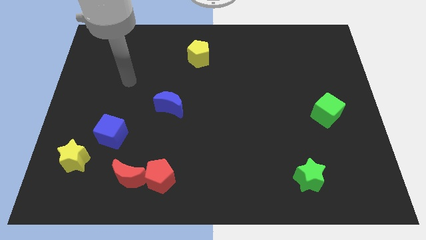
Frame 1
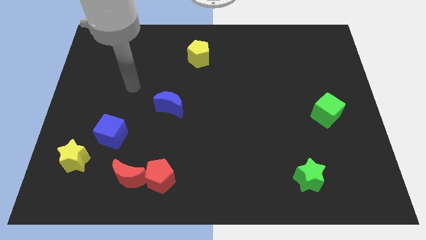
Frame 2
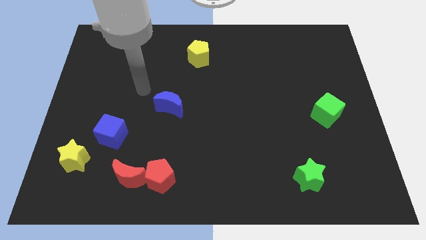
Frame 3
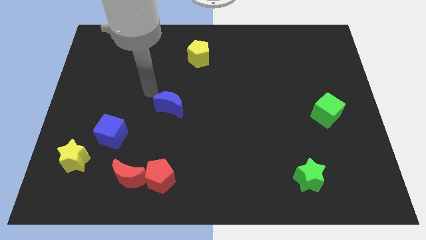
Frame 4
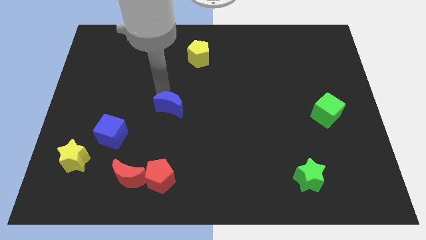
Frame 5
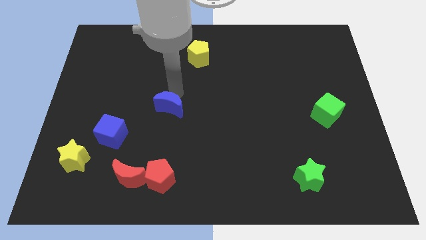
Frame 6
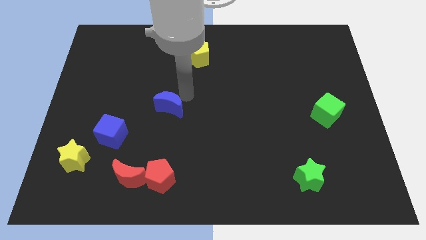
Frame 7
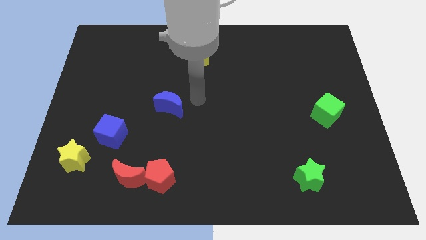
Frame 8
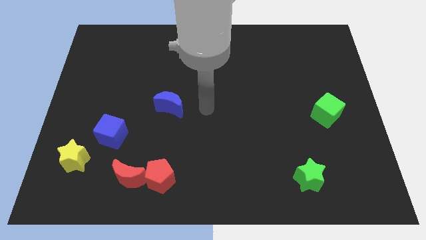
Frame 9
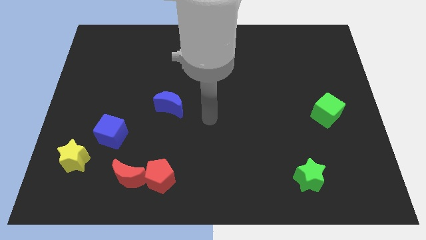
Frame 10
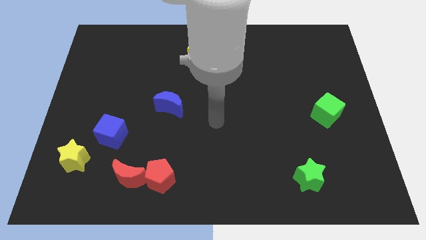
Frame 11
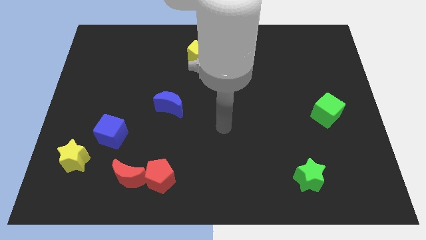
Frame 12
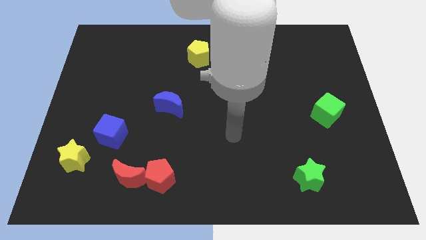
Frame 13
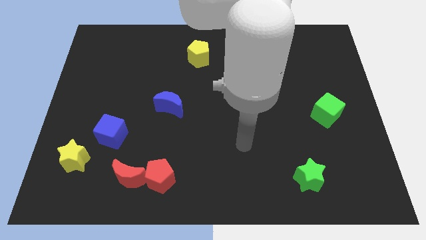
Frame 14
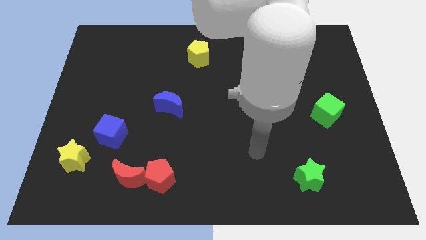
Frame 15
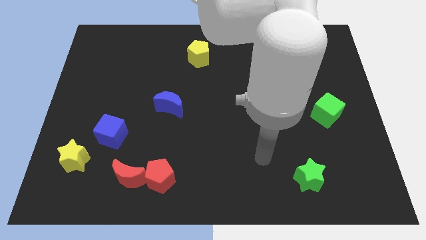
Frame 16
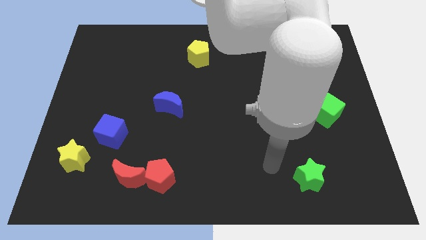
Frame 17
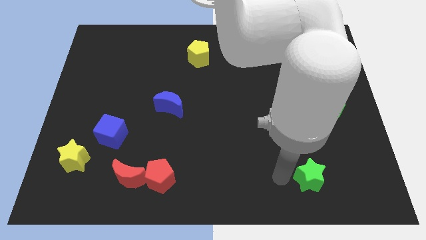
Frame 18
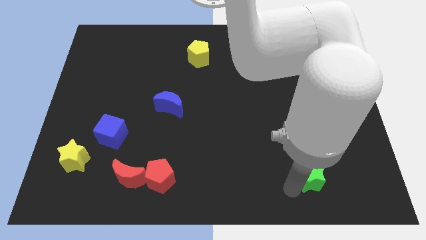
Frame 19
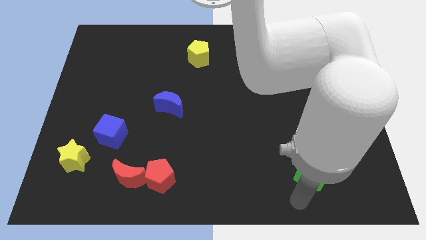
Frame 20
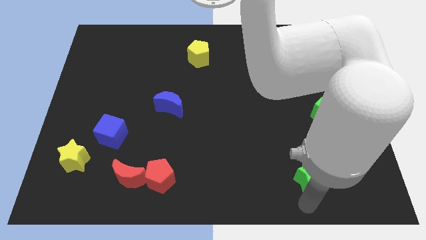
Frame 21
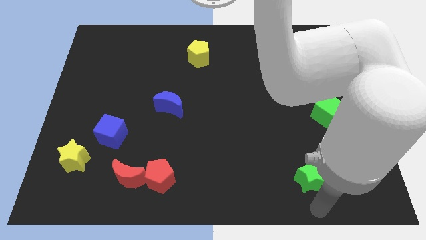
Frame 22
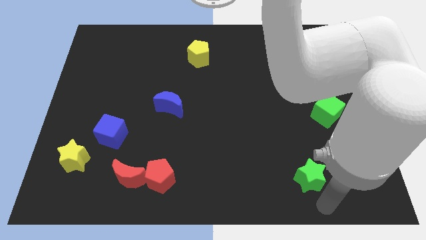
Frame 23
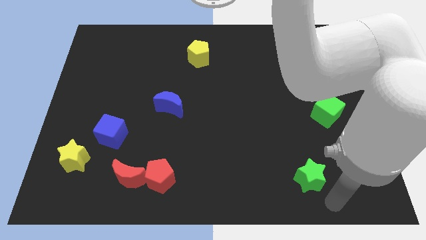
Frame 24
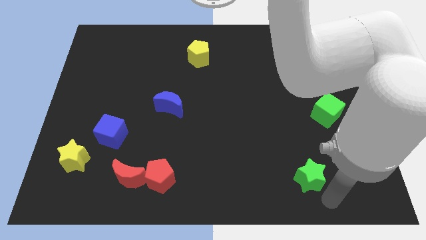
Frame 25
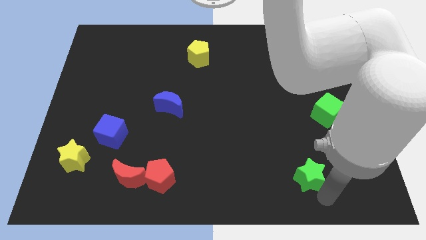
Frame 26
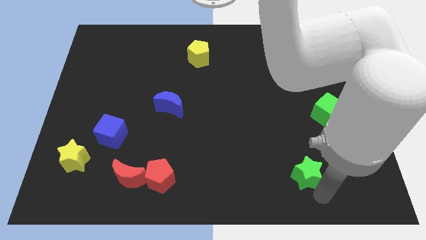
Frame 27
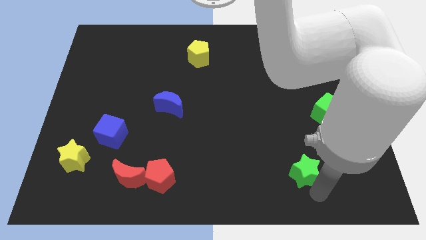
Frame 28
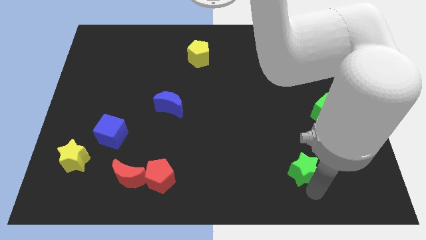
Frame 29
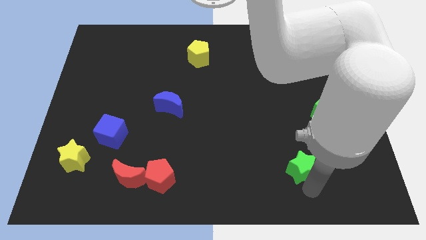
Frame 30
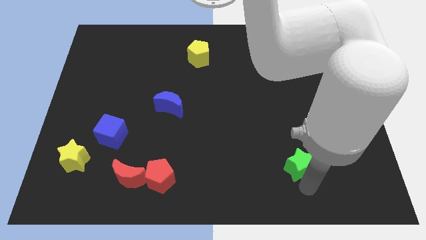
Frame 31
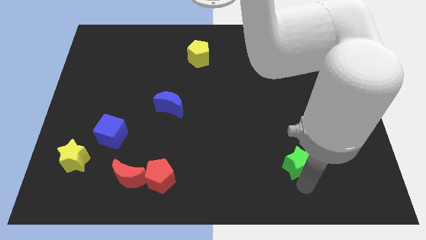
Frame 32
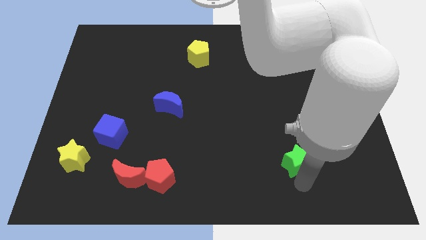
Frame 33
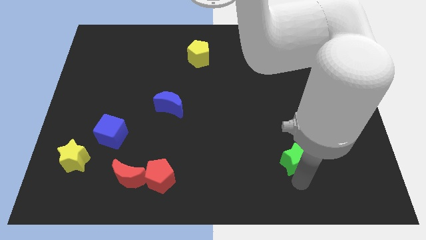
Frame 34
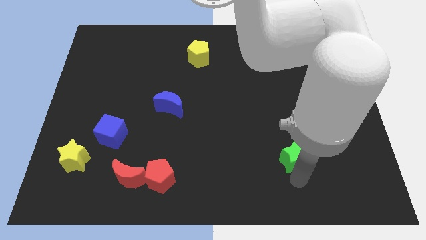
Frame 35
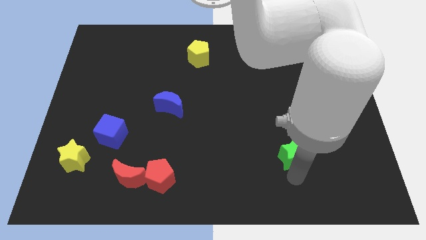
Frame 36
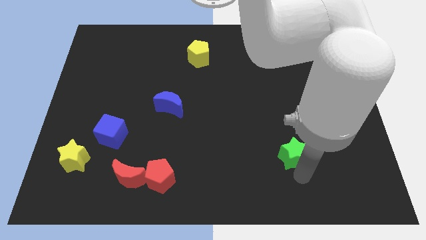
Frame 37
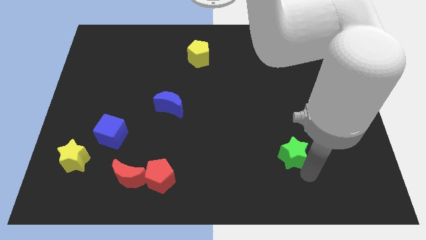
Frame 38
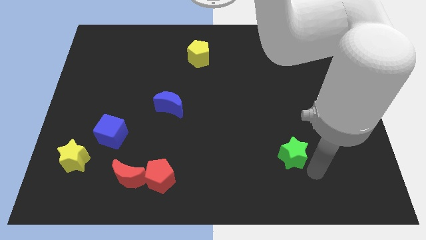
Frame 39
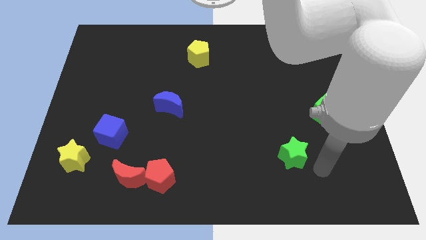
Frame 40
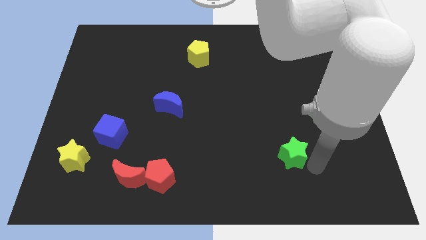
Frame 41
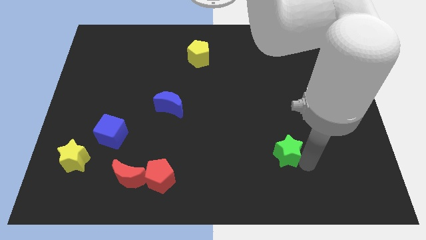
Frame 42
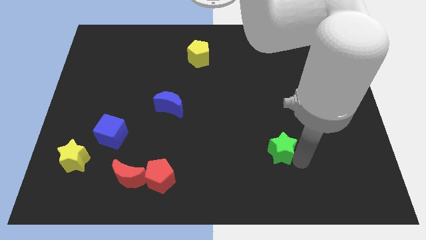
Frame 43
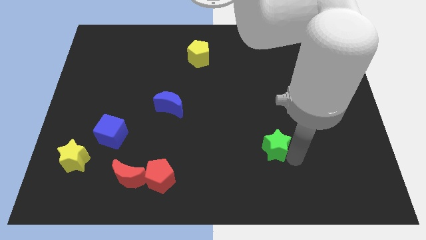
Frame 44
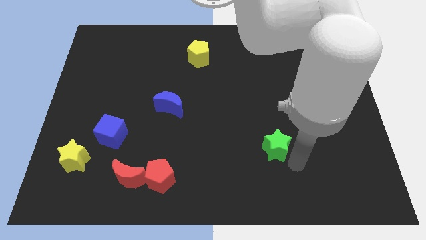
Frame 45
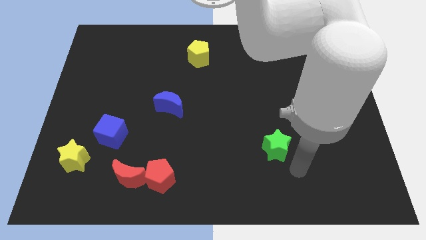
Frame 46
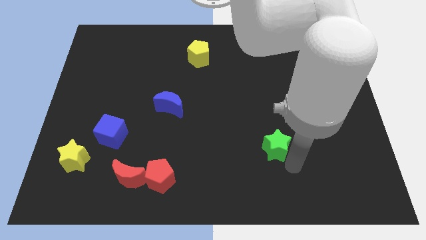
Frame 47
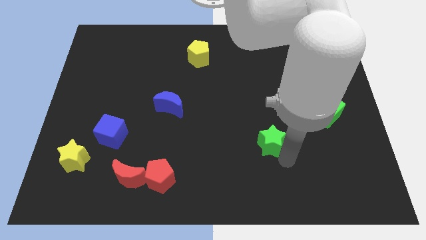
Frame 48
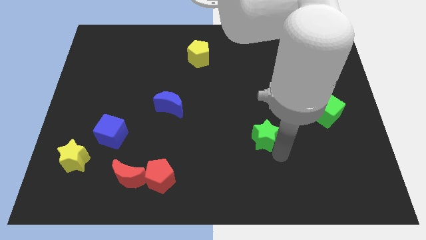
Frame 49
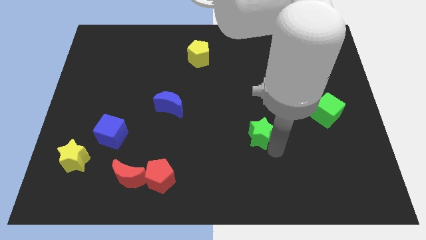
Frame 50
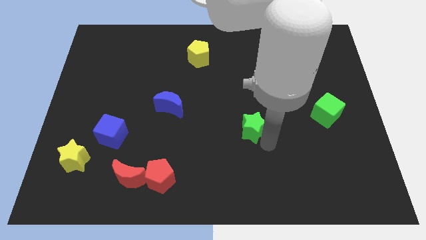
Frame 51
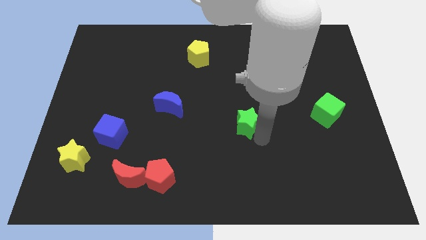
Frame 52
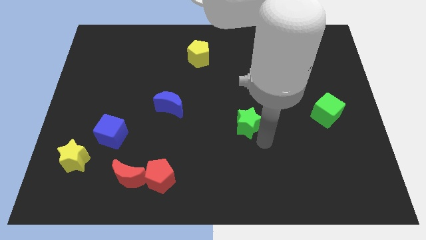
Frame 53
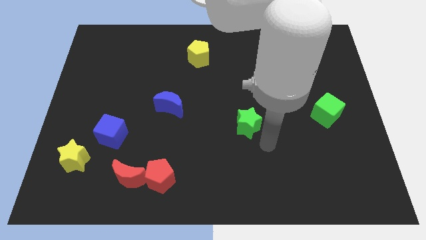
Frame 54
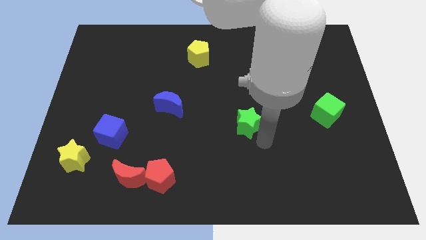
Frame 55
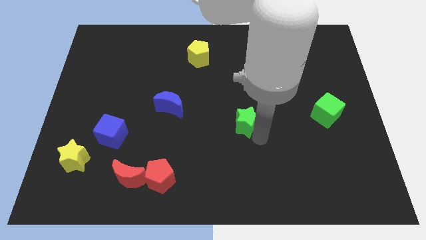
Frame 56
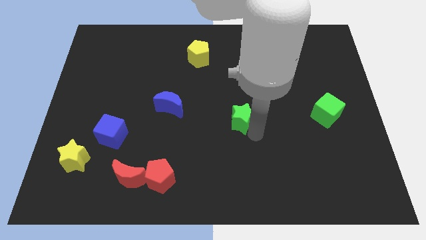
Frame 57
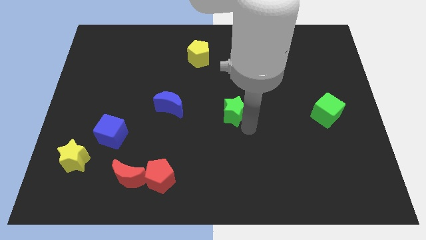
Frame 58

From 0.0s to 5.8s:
push the green star up and left diagonally

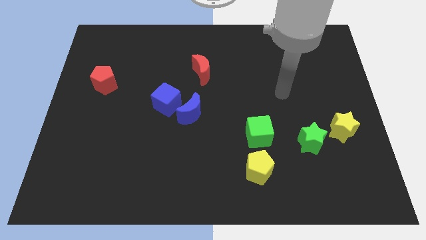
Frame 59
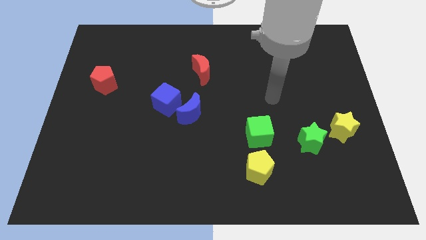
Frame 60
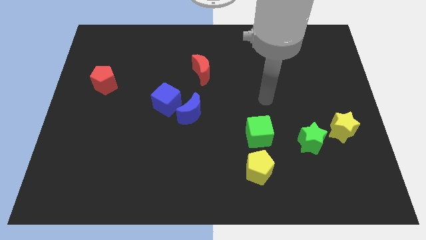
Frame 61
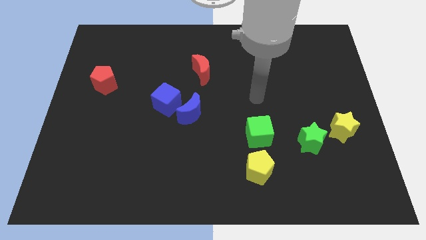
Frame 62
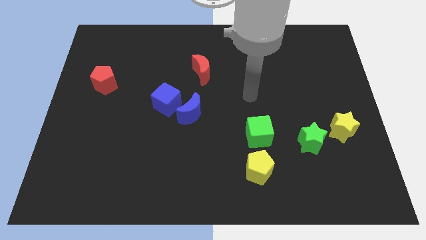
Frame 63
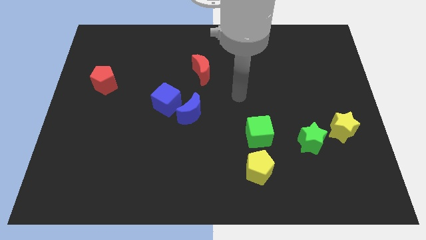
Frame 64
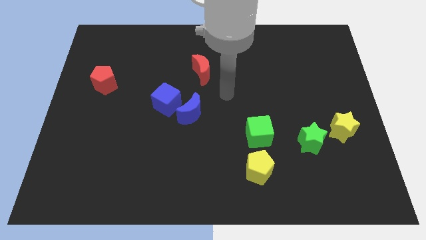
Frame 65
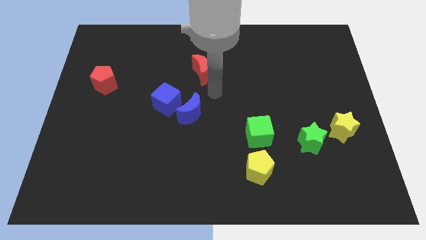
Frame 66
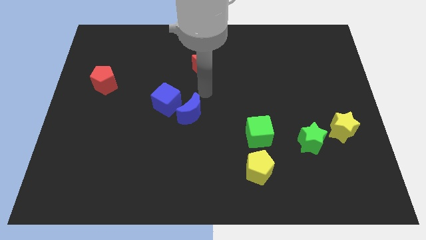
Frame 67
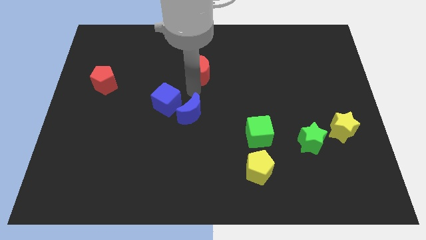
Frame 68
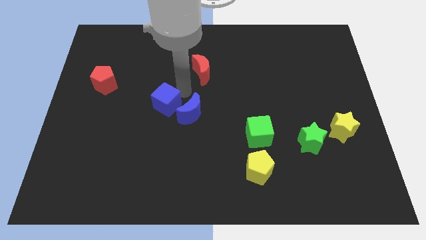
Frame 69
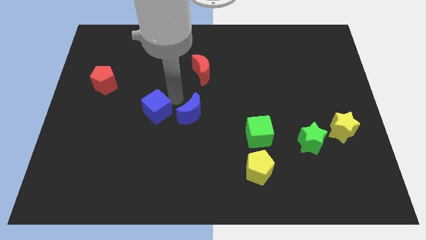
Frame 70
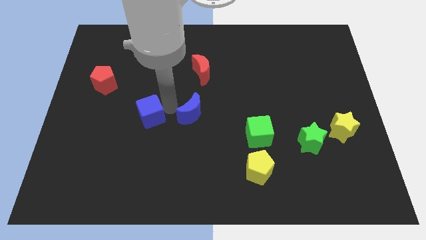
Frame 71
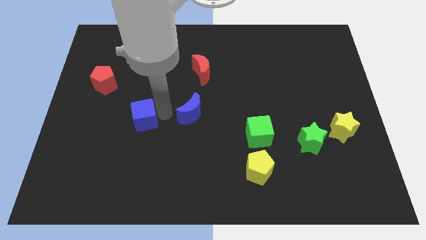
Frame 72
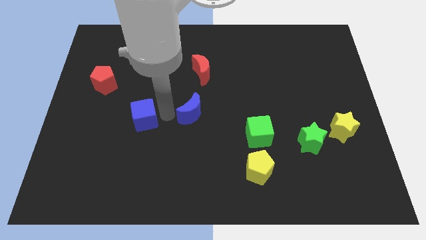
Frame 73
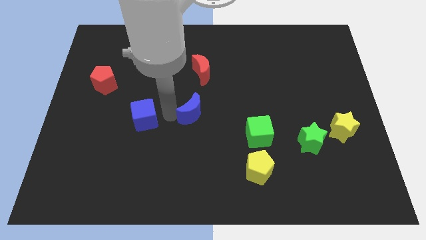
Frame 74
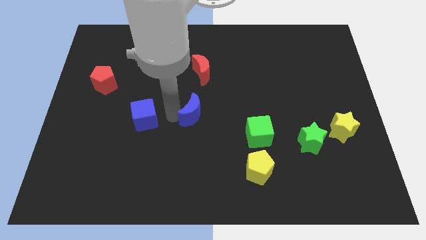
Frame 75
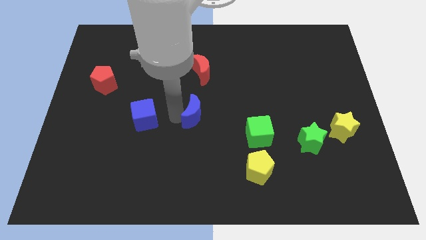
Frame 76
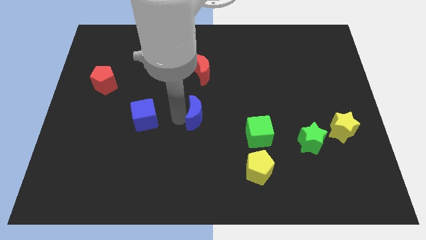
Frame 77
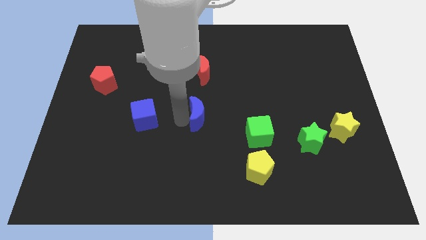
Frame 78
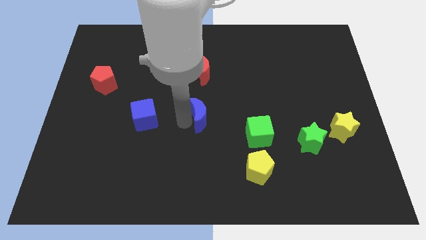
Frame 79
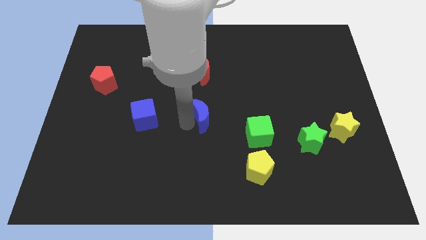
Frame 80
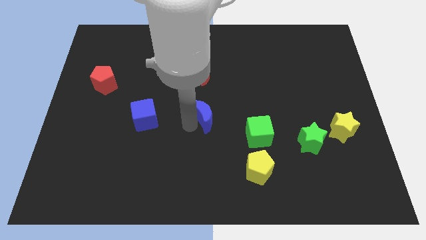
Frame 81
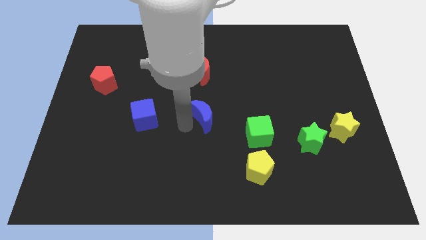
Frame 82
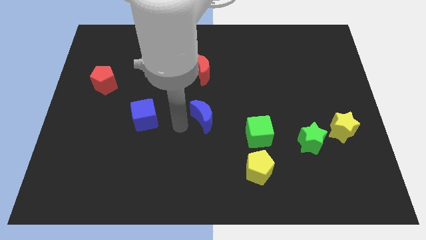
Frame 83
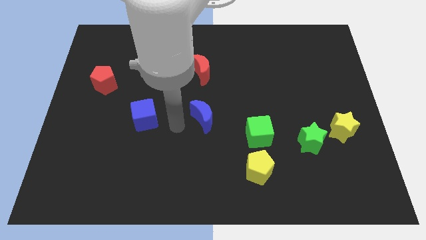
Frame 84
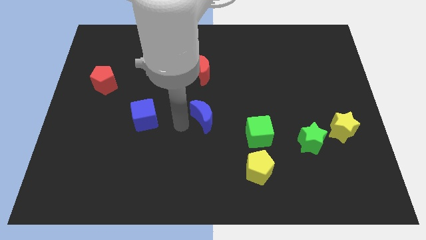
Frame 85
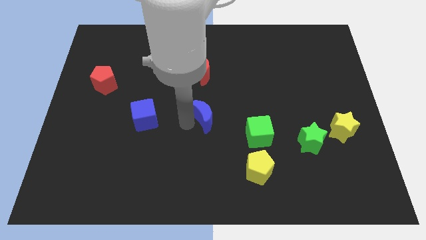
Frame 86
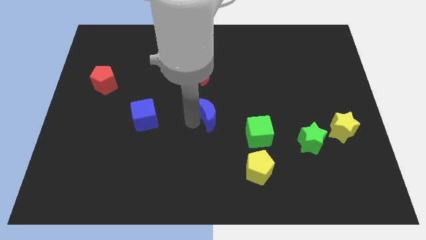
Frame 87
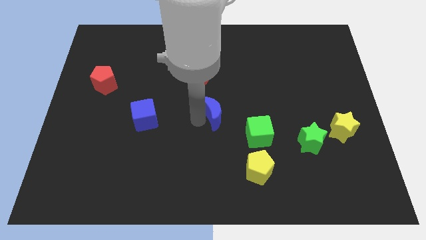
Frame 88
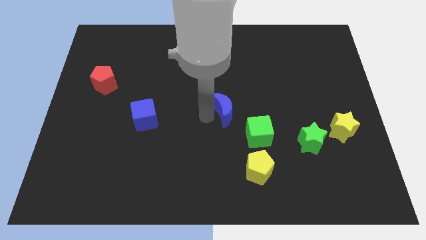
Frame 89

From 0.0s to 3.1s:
move the blue moon to the right a little
